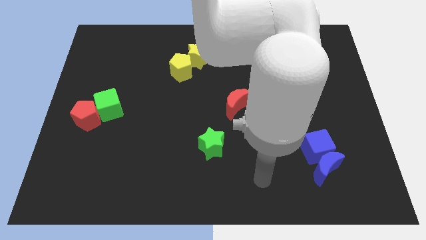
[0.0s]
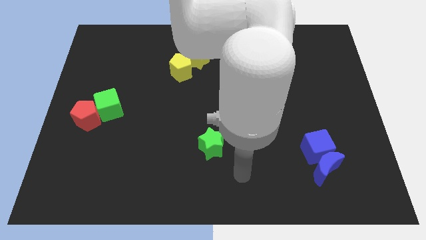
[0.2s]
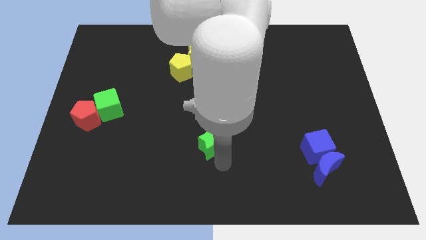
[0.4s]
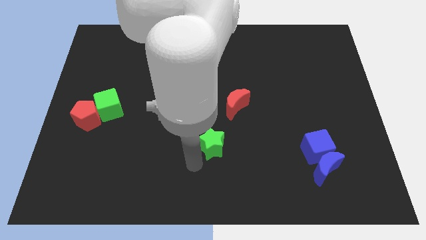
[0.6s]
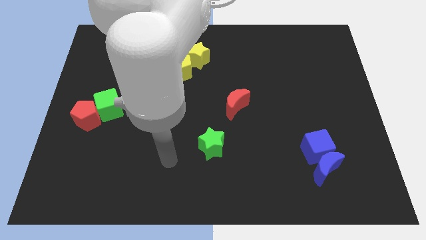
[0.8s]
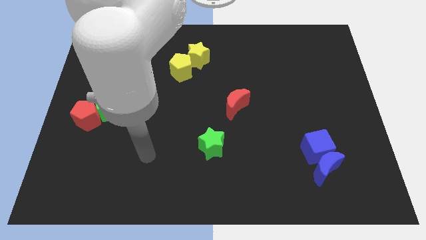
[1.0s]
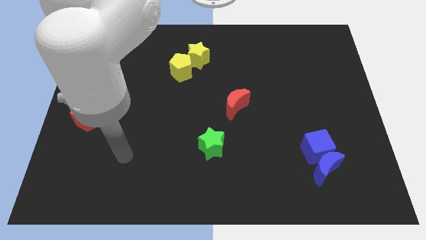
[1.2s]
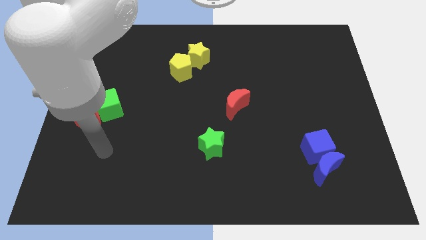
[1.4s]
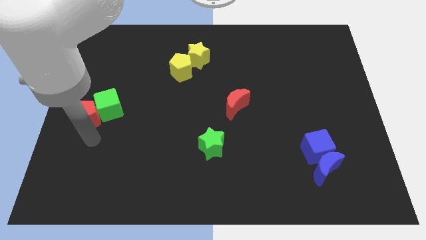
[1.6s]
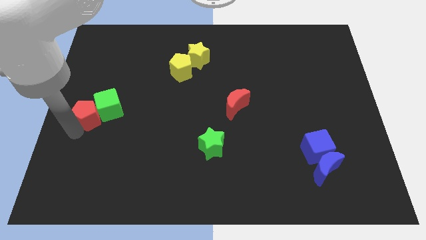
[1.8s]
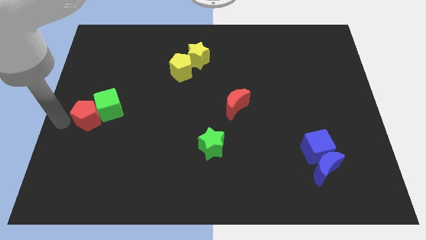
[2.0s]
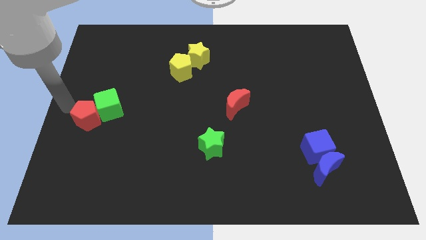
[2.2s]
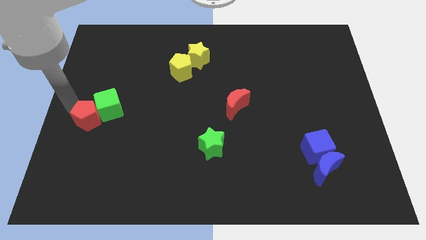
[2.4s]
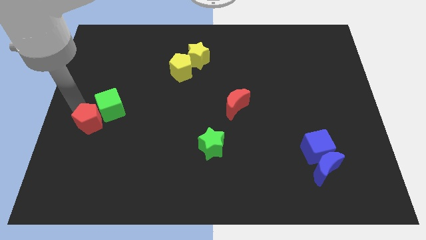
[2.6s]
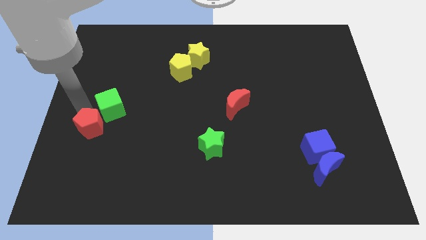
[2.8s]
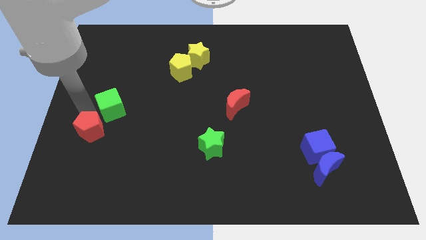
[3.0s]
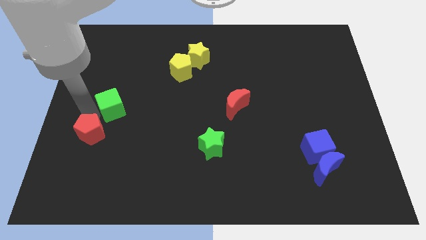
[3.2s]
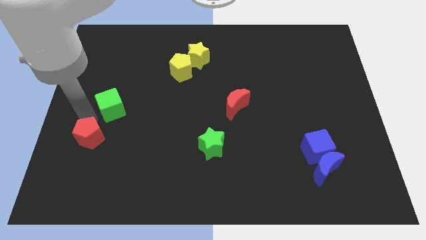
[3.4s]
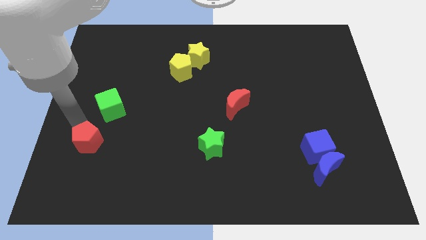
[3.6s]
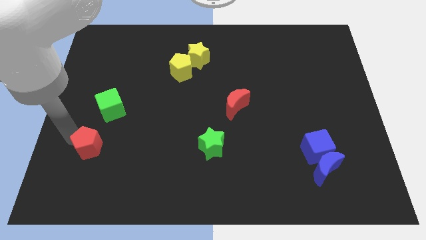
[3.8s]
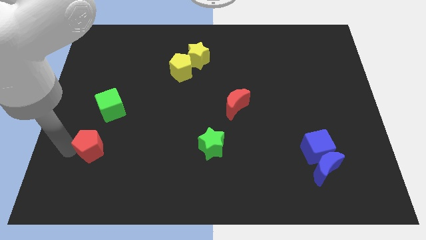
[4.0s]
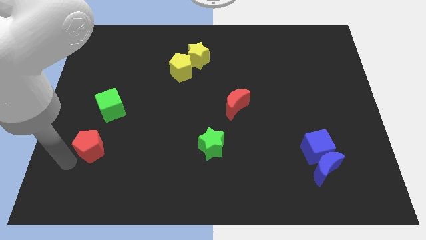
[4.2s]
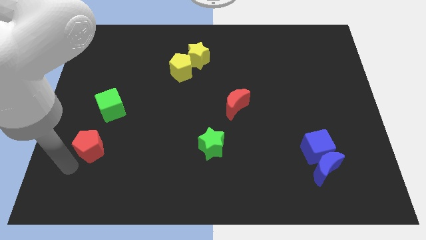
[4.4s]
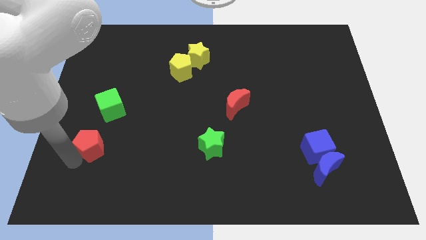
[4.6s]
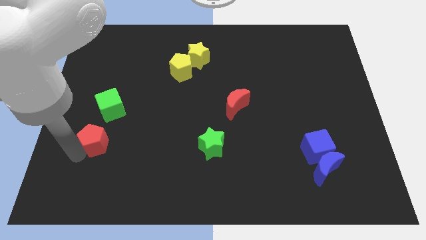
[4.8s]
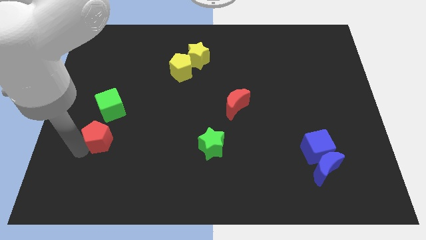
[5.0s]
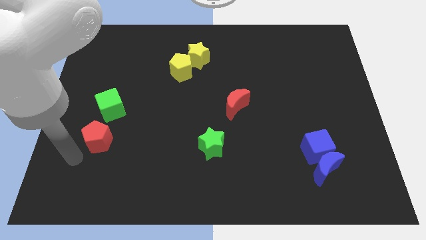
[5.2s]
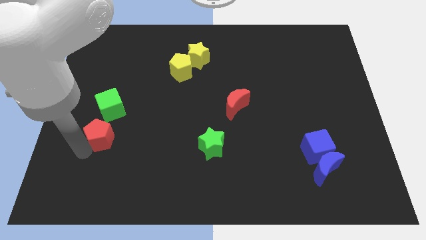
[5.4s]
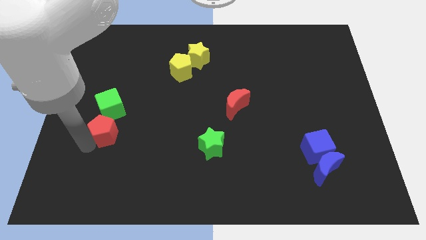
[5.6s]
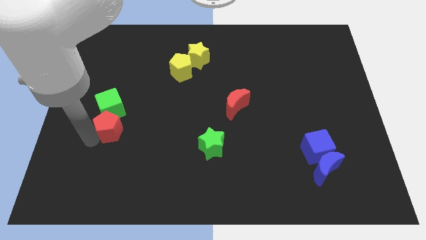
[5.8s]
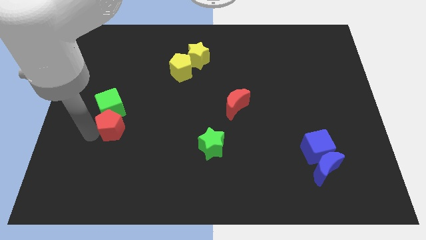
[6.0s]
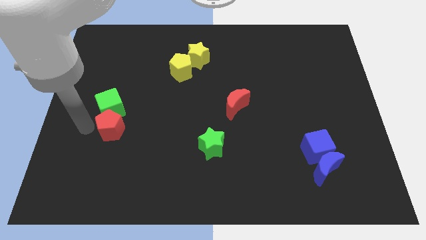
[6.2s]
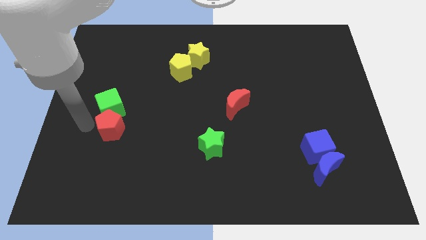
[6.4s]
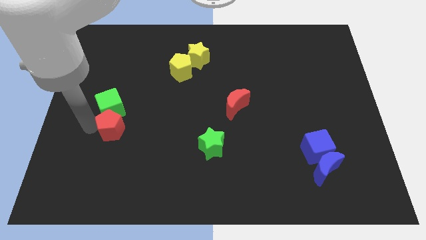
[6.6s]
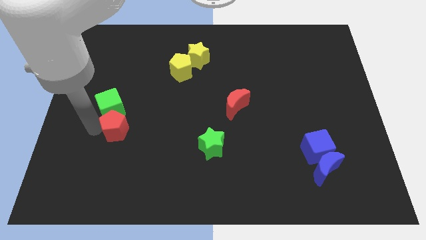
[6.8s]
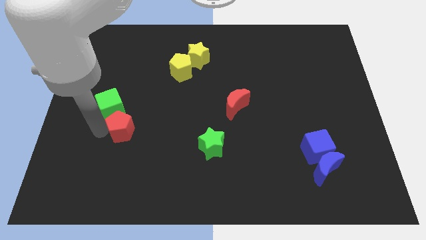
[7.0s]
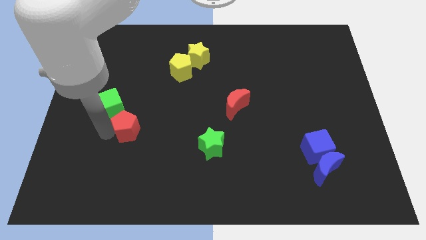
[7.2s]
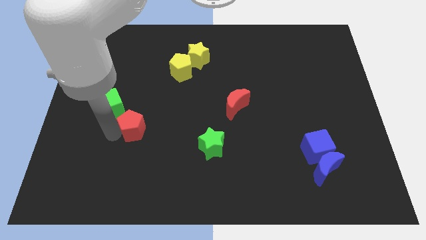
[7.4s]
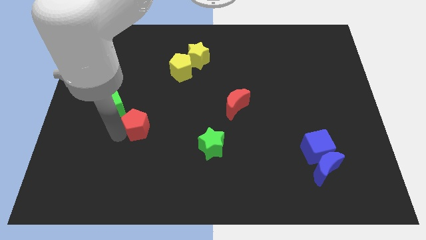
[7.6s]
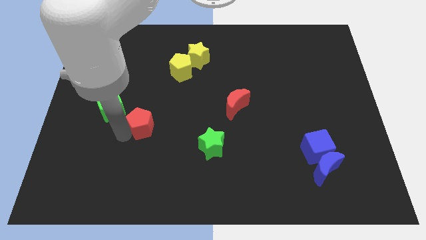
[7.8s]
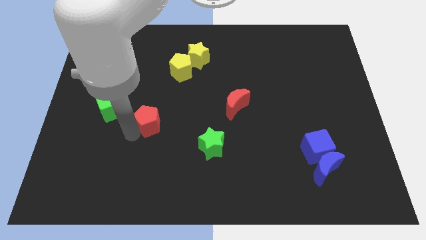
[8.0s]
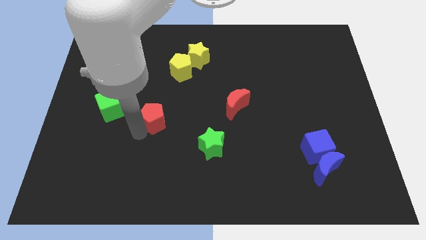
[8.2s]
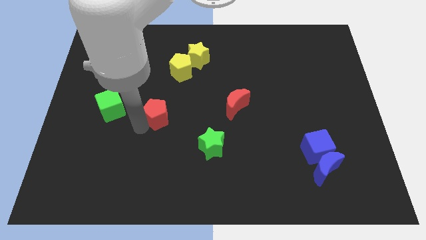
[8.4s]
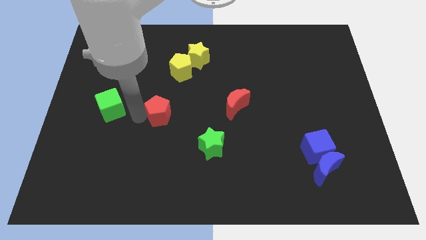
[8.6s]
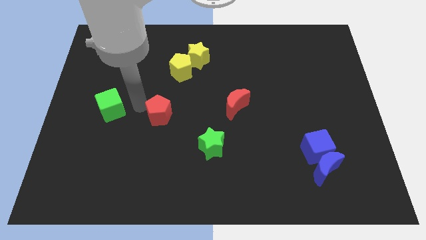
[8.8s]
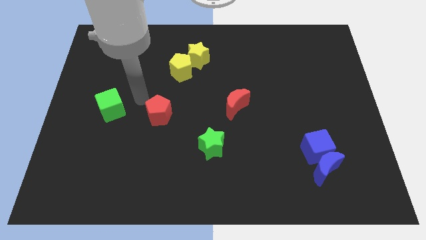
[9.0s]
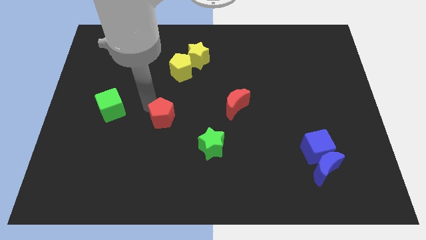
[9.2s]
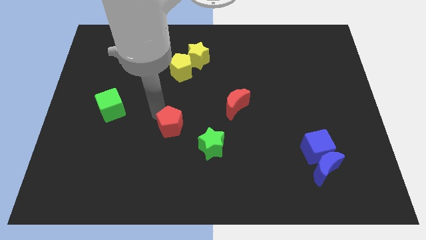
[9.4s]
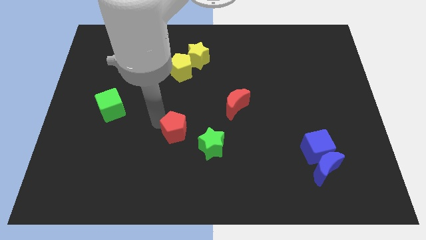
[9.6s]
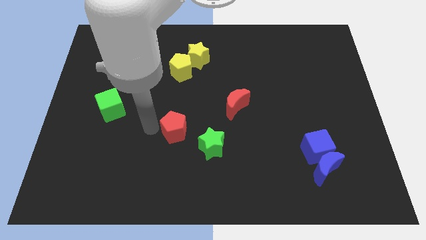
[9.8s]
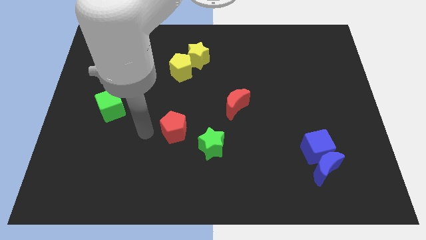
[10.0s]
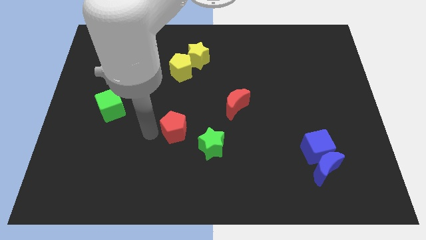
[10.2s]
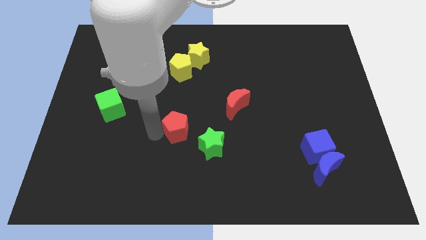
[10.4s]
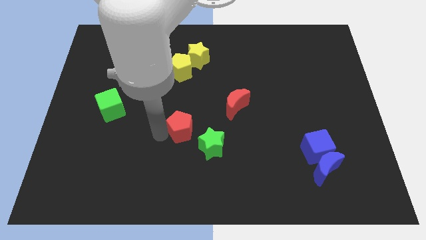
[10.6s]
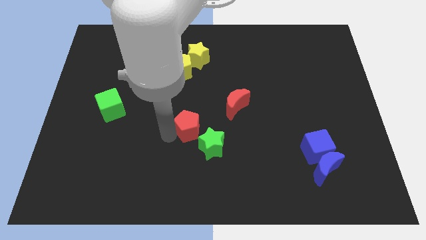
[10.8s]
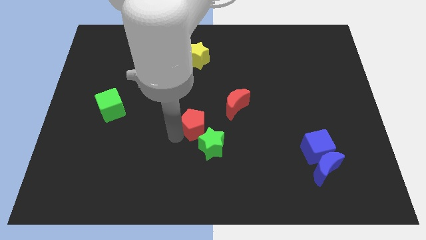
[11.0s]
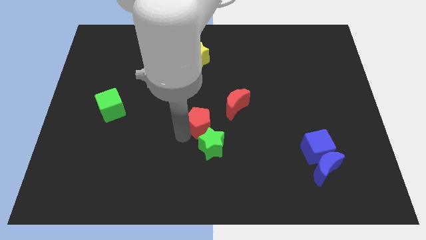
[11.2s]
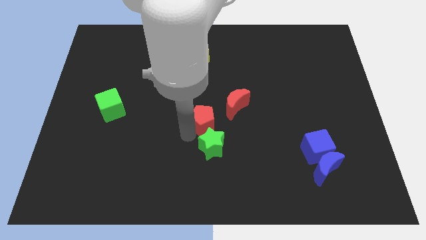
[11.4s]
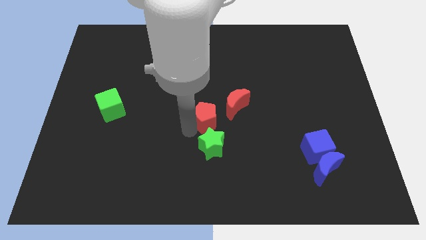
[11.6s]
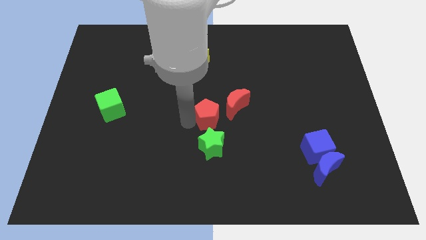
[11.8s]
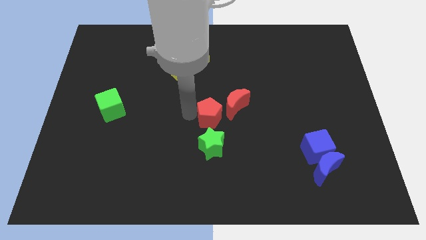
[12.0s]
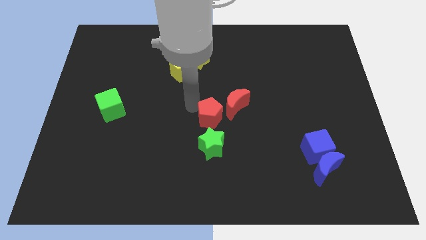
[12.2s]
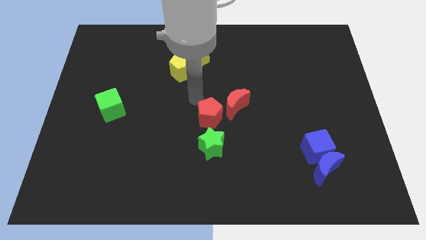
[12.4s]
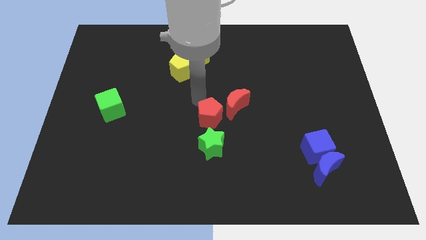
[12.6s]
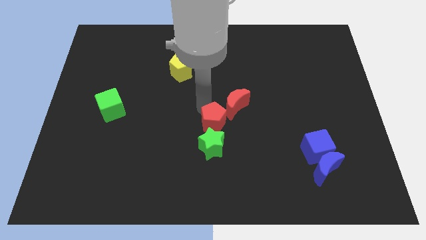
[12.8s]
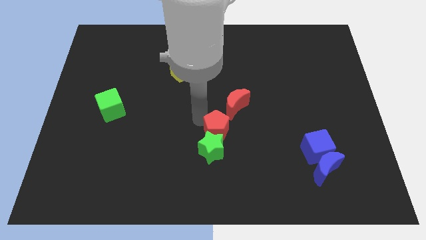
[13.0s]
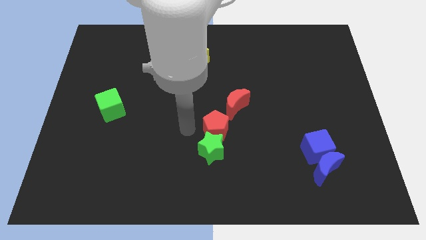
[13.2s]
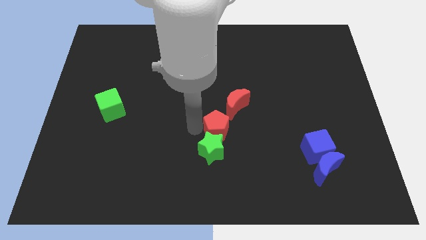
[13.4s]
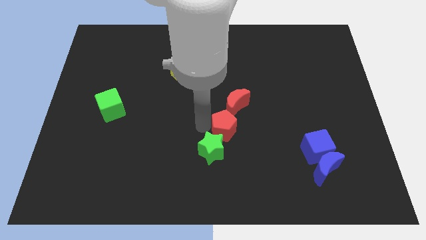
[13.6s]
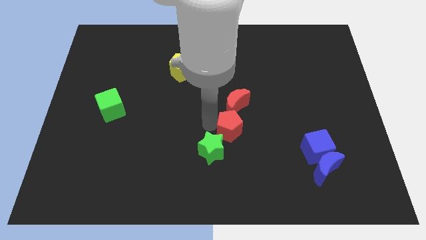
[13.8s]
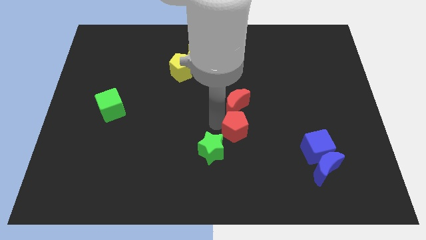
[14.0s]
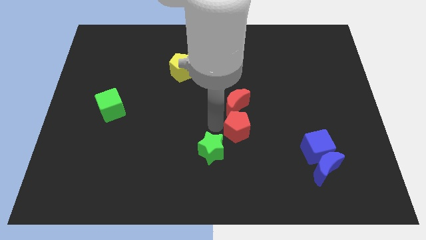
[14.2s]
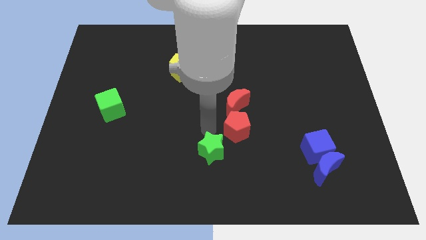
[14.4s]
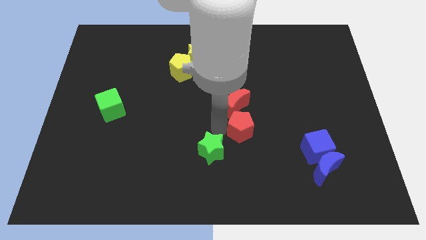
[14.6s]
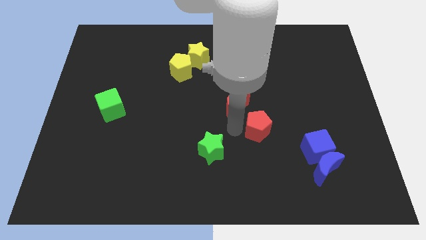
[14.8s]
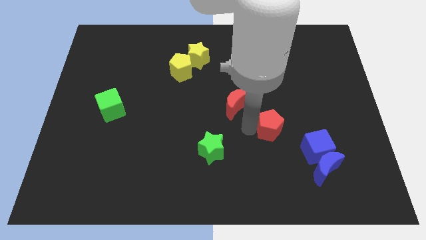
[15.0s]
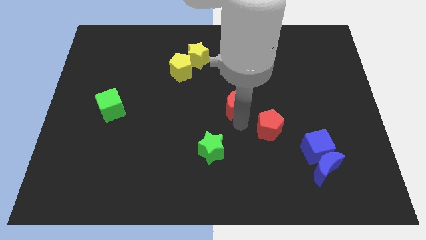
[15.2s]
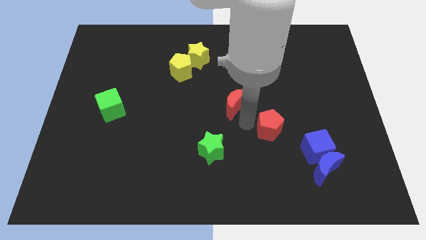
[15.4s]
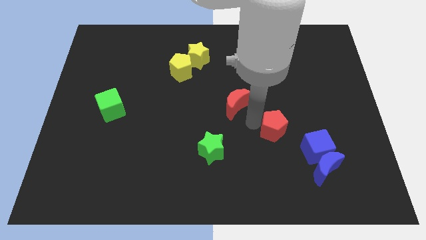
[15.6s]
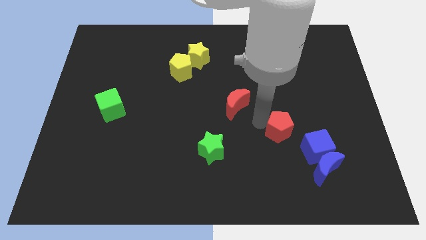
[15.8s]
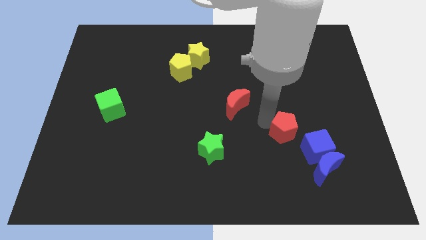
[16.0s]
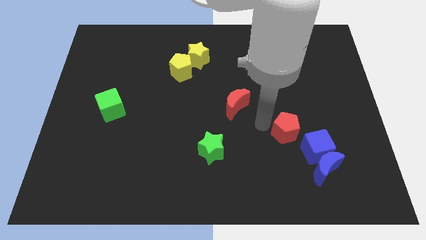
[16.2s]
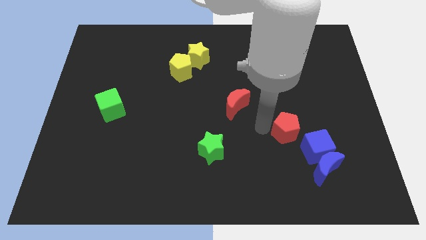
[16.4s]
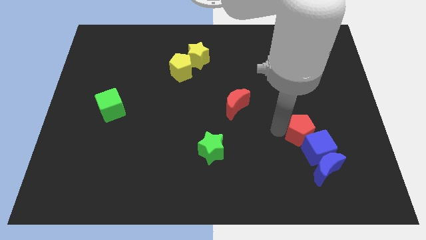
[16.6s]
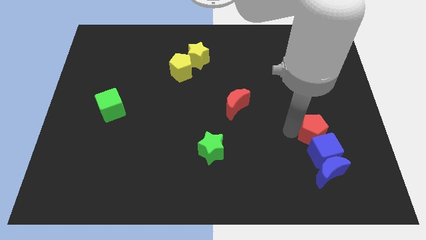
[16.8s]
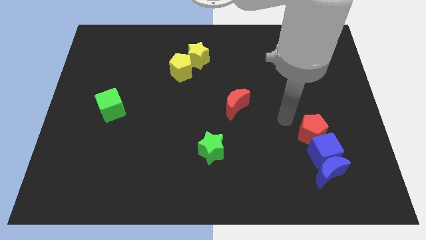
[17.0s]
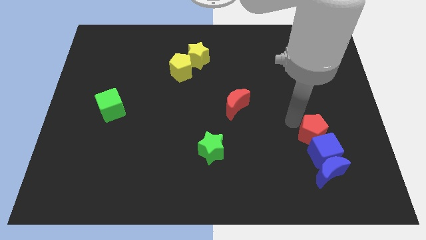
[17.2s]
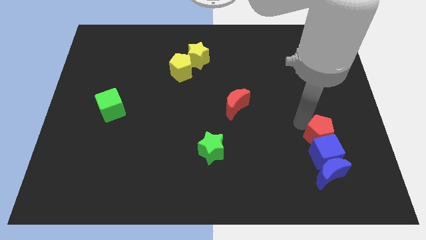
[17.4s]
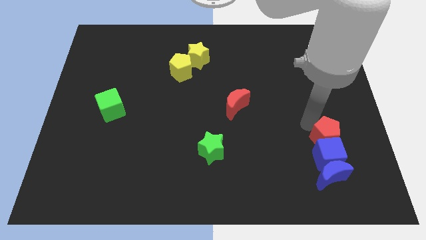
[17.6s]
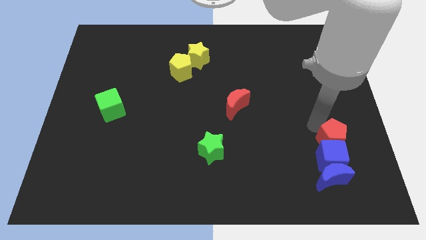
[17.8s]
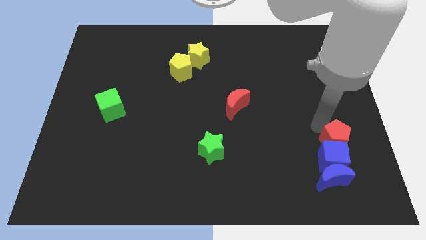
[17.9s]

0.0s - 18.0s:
slide the red pentagon to the top right side of the blue moon
